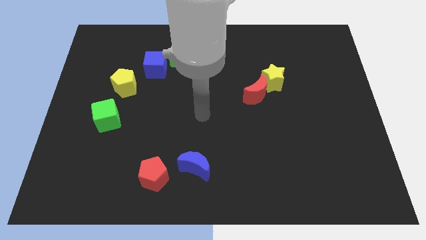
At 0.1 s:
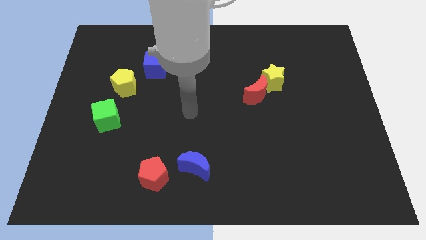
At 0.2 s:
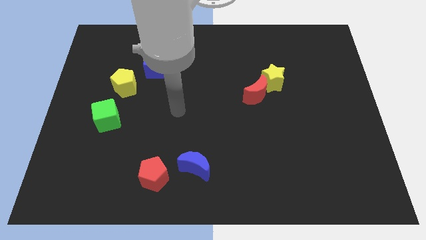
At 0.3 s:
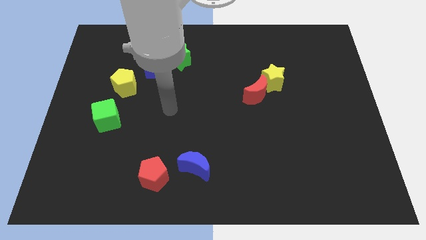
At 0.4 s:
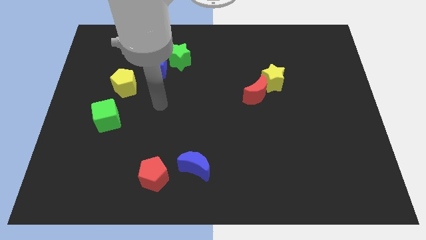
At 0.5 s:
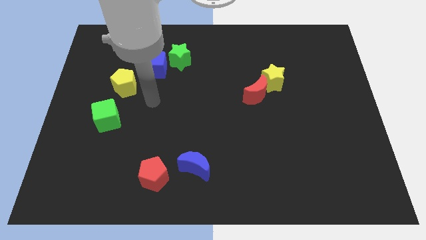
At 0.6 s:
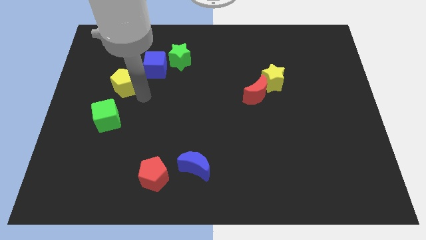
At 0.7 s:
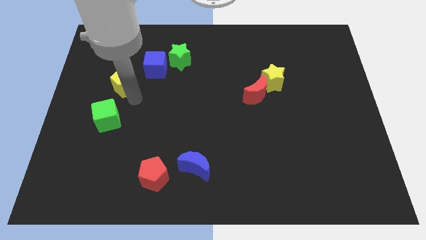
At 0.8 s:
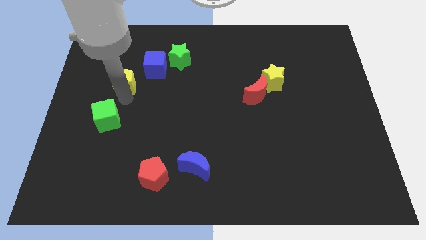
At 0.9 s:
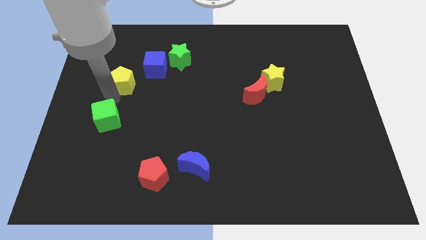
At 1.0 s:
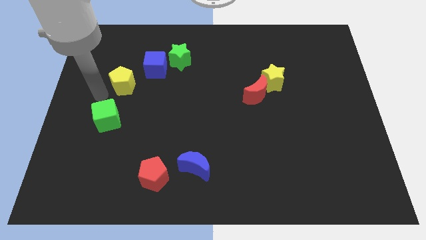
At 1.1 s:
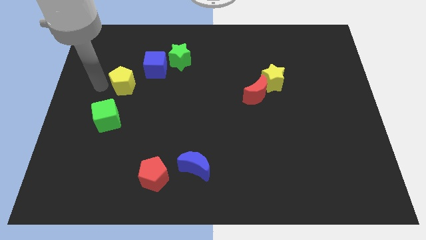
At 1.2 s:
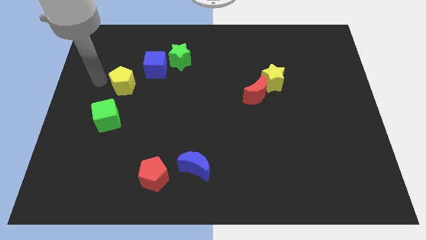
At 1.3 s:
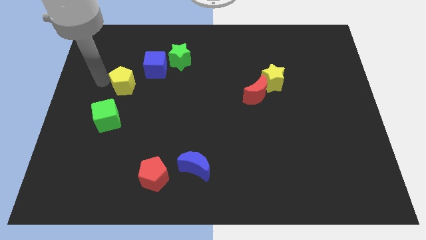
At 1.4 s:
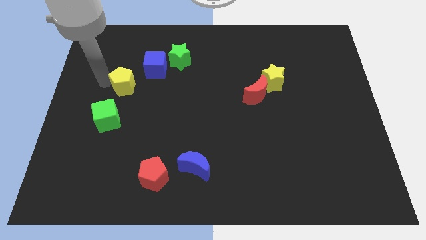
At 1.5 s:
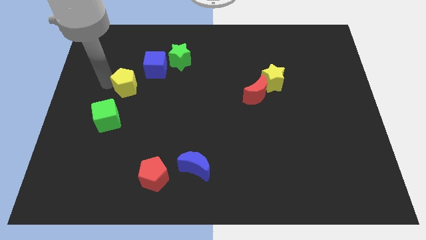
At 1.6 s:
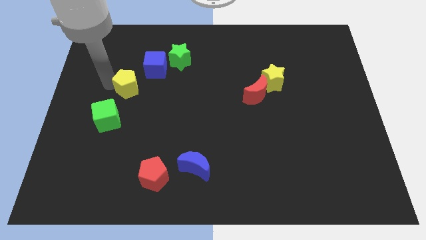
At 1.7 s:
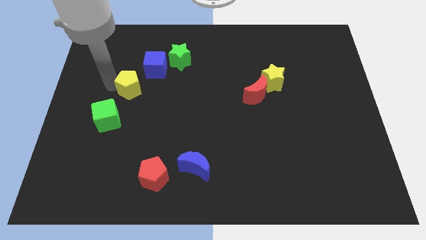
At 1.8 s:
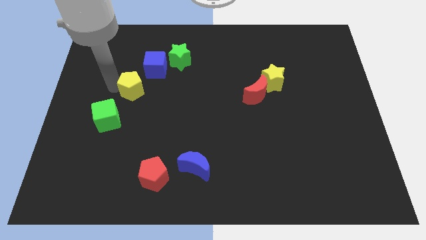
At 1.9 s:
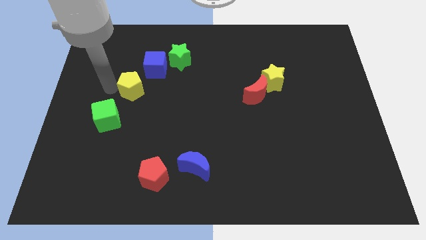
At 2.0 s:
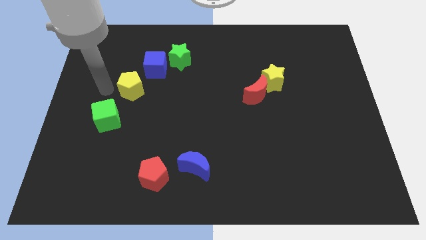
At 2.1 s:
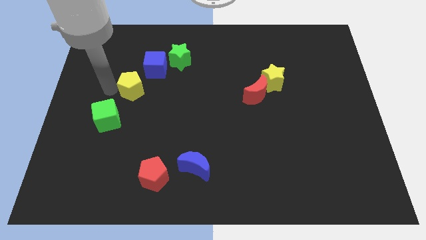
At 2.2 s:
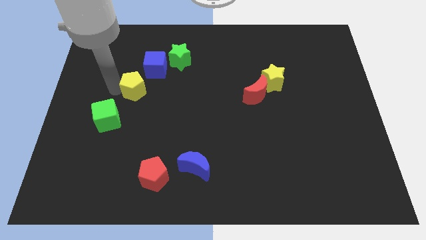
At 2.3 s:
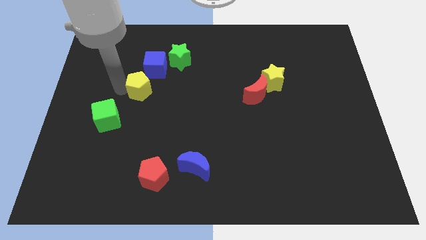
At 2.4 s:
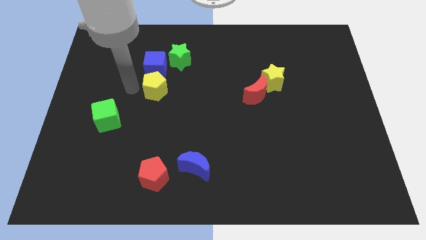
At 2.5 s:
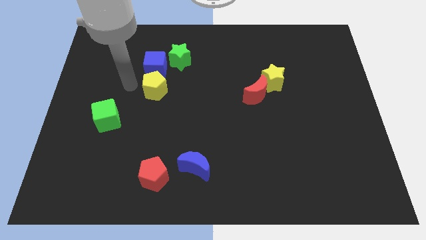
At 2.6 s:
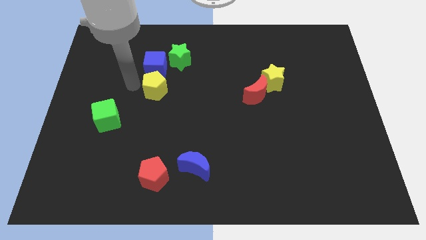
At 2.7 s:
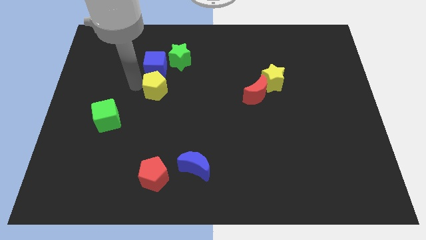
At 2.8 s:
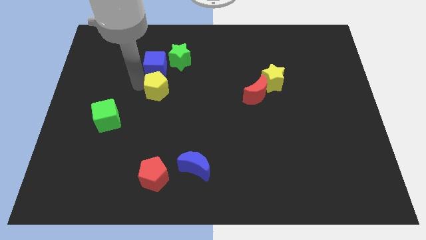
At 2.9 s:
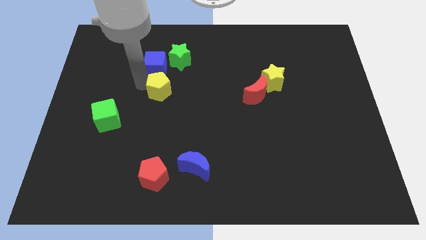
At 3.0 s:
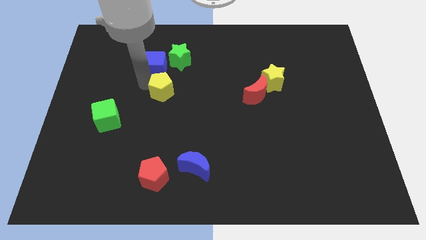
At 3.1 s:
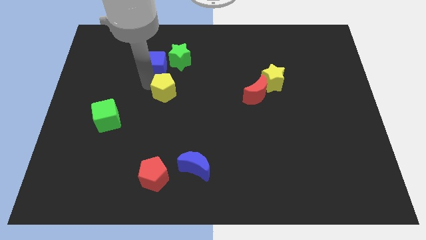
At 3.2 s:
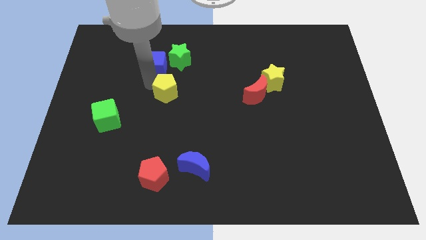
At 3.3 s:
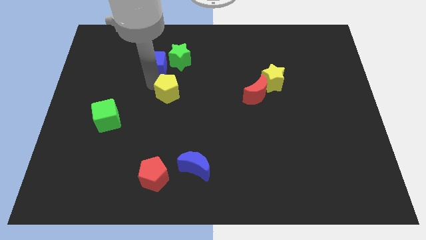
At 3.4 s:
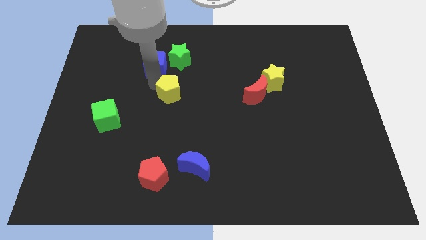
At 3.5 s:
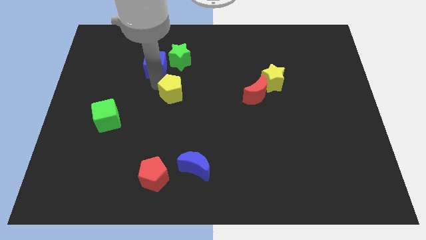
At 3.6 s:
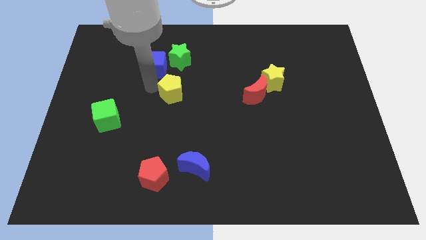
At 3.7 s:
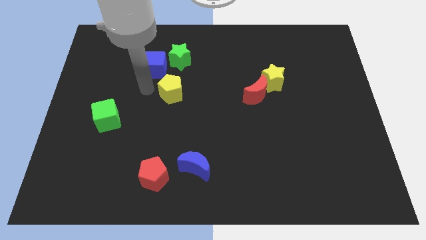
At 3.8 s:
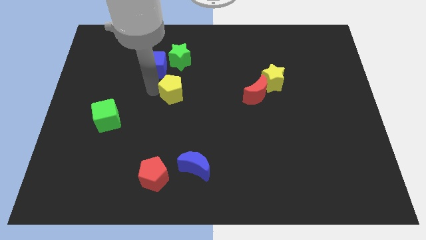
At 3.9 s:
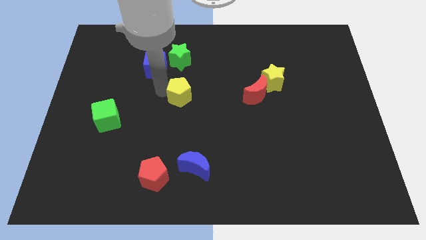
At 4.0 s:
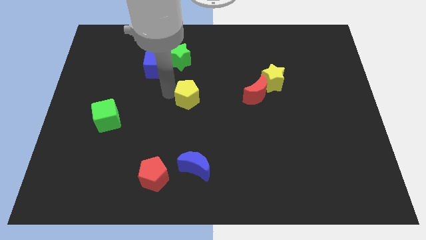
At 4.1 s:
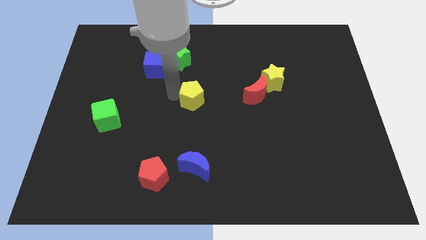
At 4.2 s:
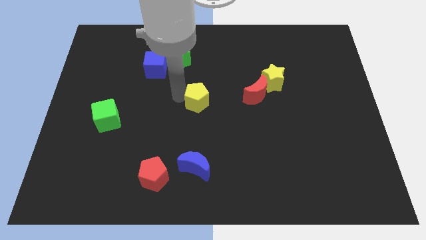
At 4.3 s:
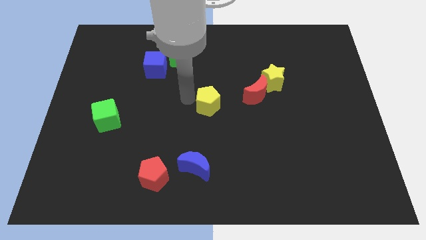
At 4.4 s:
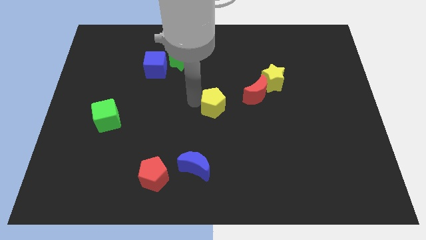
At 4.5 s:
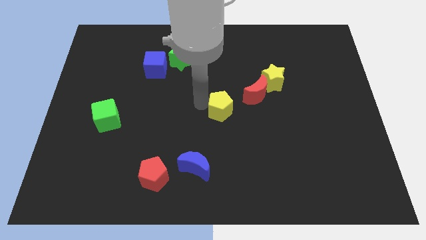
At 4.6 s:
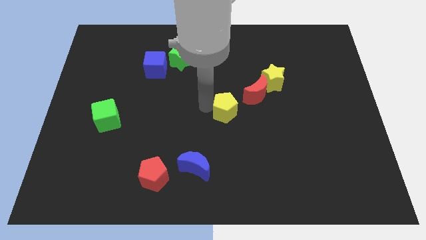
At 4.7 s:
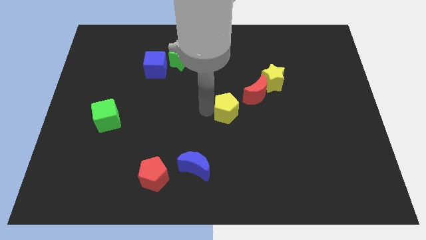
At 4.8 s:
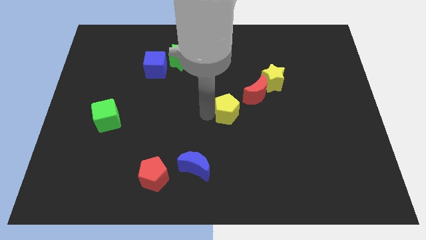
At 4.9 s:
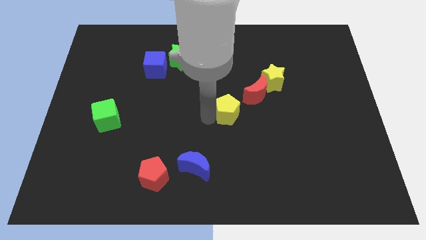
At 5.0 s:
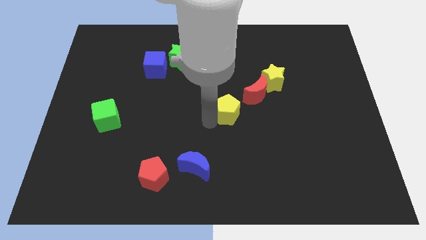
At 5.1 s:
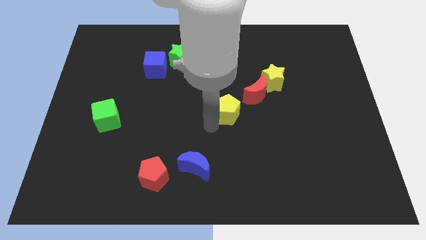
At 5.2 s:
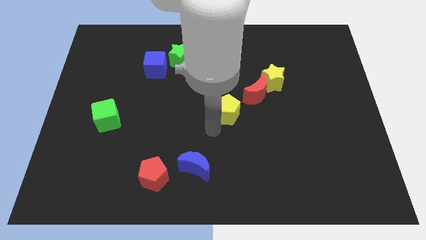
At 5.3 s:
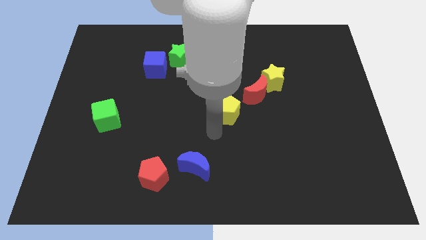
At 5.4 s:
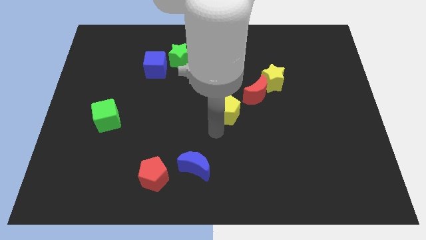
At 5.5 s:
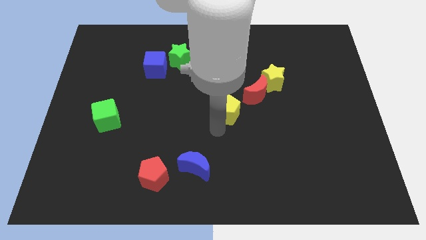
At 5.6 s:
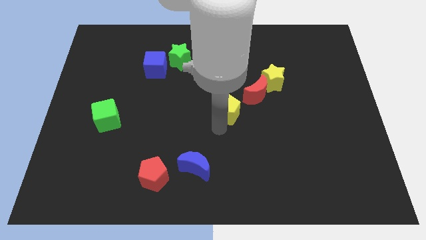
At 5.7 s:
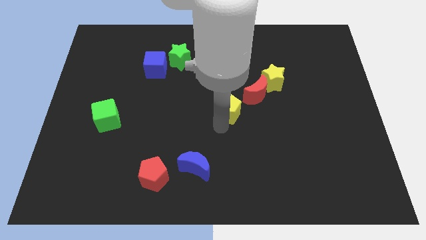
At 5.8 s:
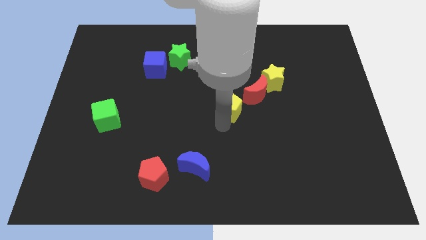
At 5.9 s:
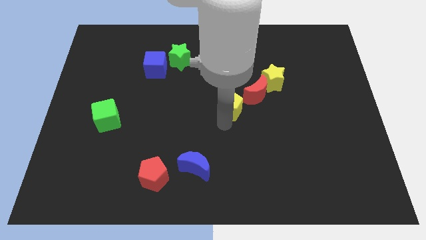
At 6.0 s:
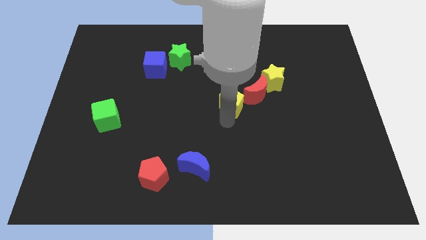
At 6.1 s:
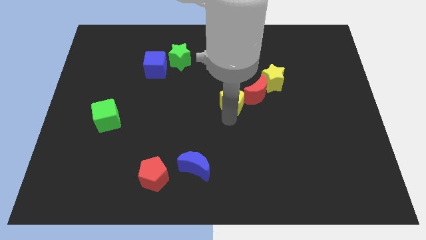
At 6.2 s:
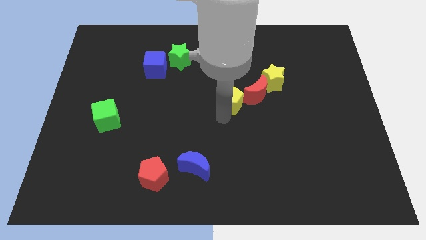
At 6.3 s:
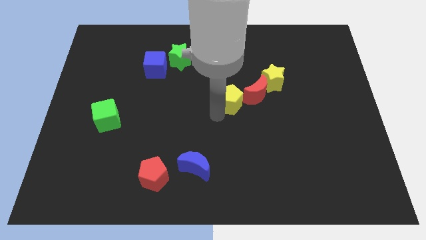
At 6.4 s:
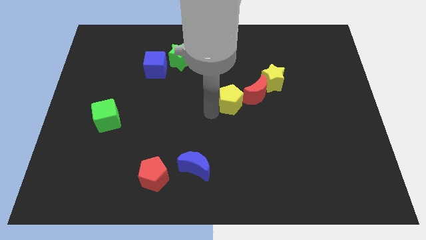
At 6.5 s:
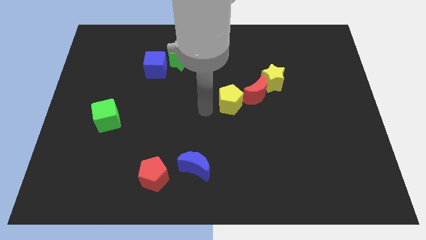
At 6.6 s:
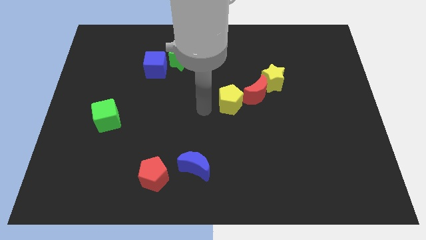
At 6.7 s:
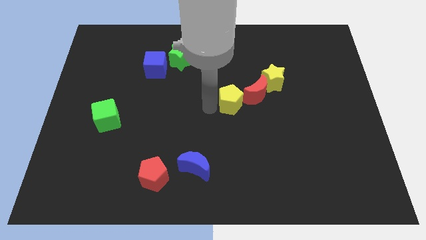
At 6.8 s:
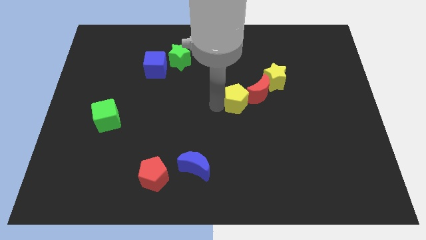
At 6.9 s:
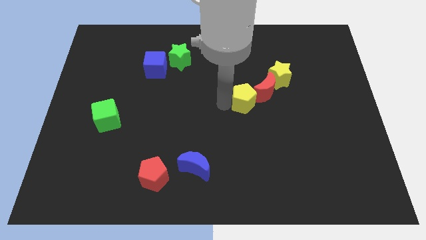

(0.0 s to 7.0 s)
slide the yellow pentagon to the red moon

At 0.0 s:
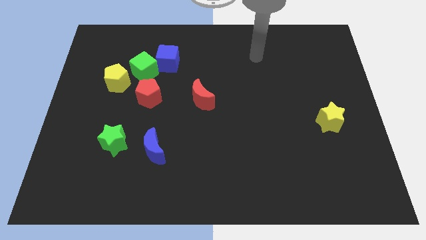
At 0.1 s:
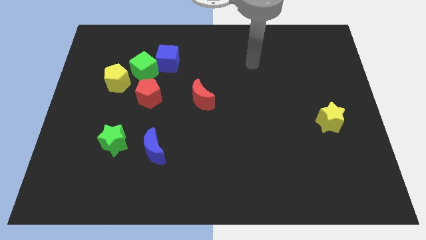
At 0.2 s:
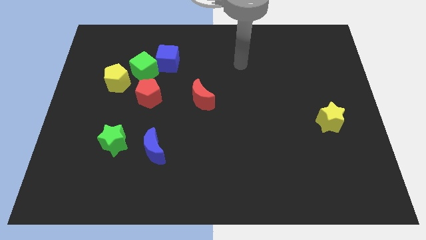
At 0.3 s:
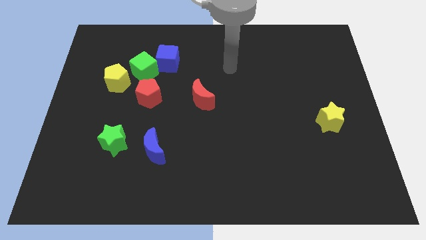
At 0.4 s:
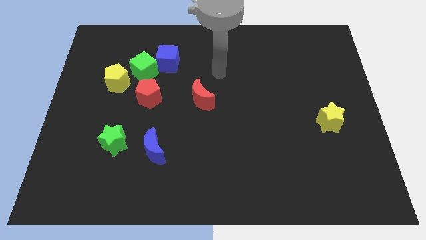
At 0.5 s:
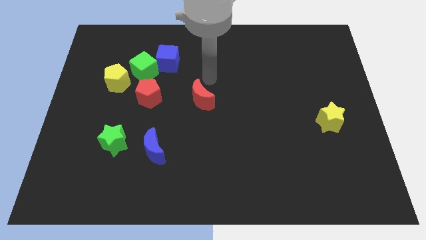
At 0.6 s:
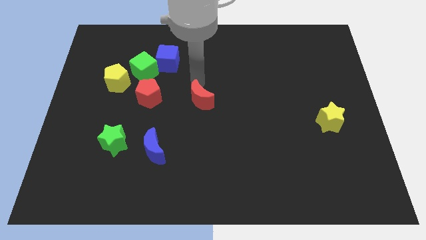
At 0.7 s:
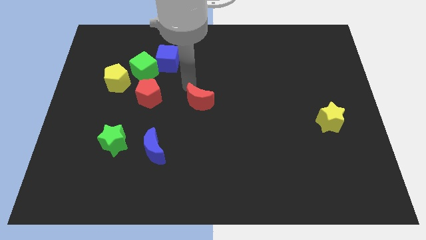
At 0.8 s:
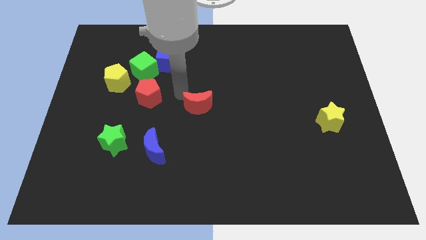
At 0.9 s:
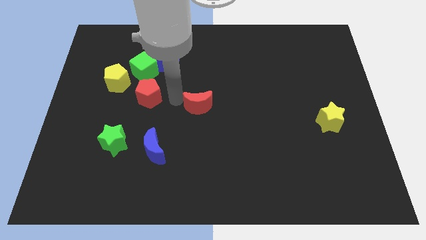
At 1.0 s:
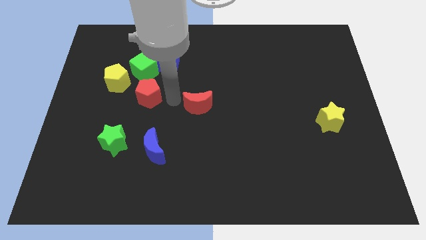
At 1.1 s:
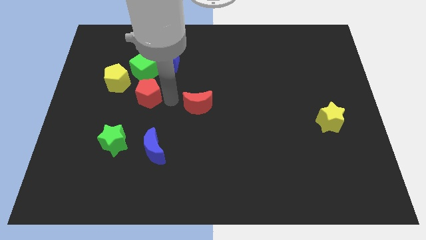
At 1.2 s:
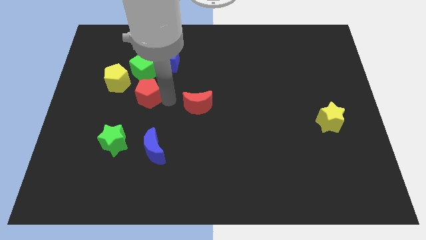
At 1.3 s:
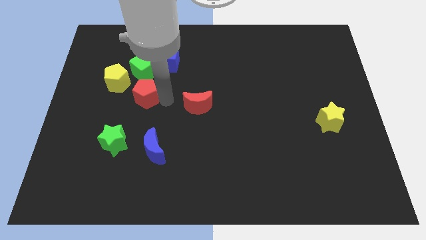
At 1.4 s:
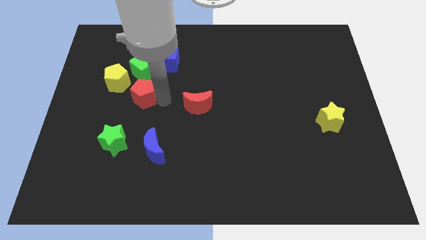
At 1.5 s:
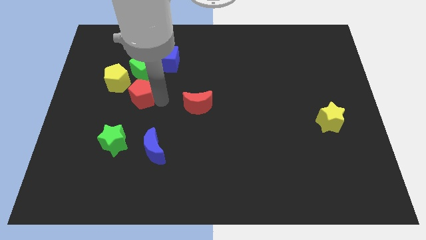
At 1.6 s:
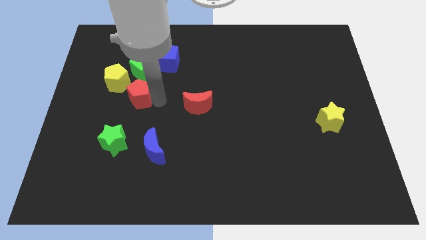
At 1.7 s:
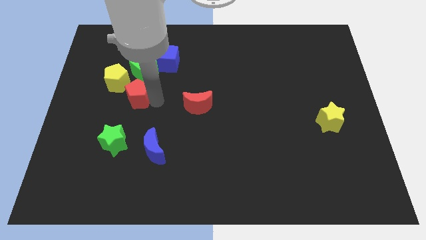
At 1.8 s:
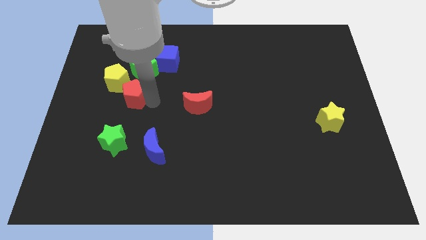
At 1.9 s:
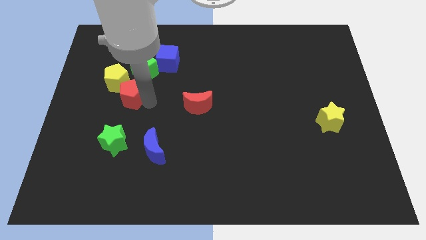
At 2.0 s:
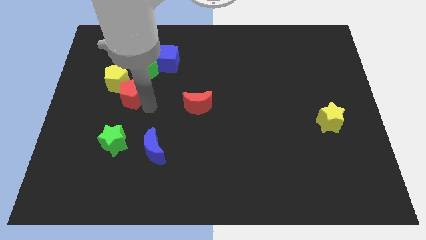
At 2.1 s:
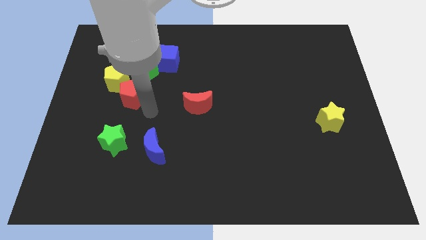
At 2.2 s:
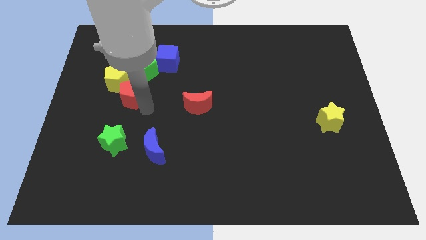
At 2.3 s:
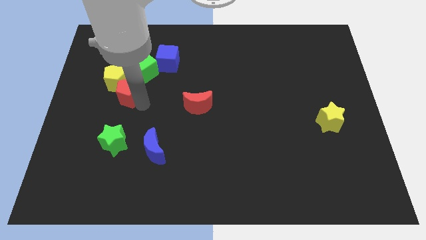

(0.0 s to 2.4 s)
put the red pentagon to the yellow pentagon
